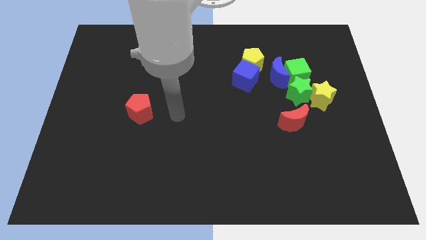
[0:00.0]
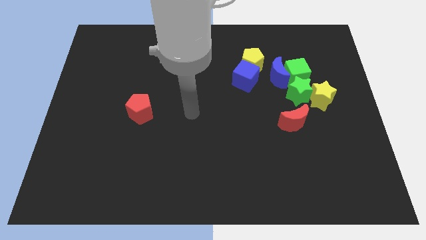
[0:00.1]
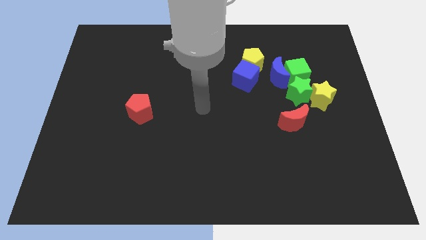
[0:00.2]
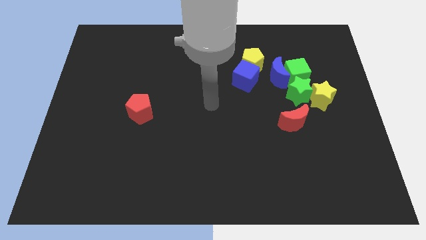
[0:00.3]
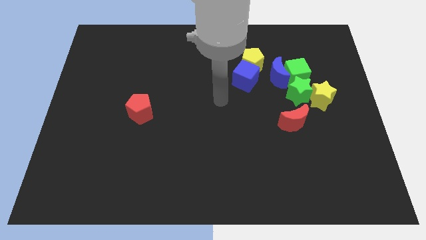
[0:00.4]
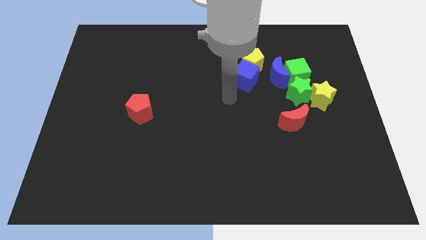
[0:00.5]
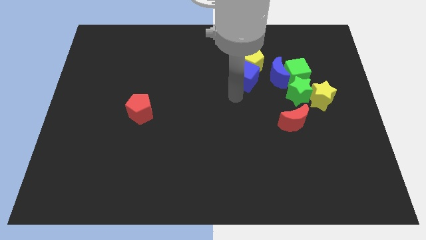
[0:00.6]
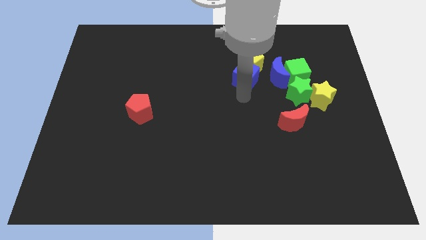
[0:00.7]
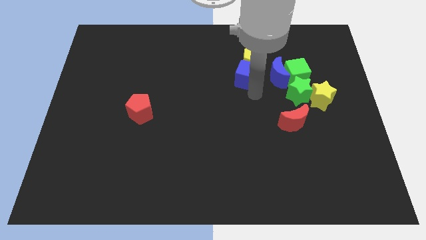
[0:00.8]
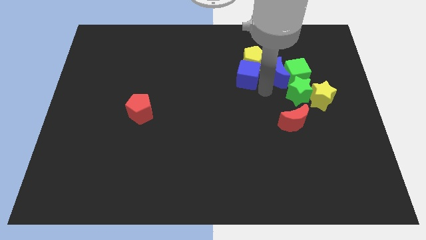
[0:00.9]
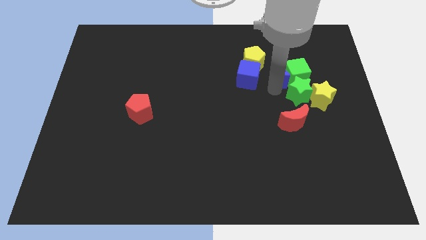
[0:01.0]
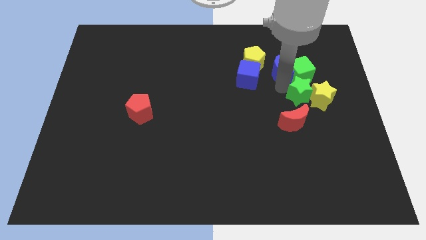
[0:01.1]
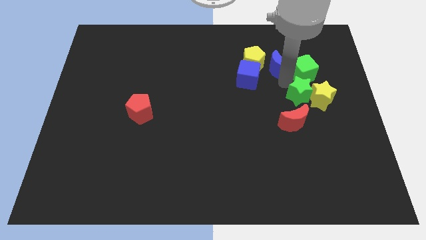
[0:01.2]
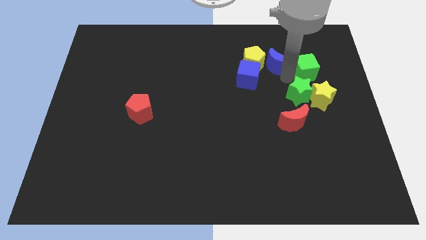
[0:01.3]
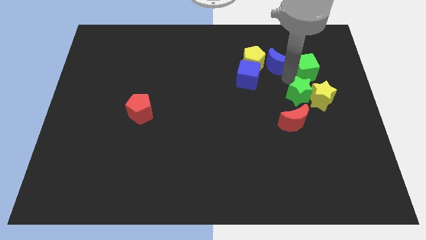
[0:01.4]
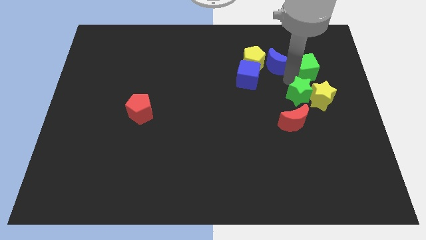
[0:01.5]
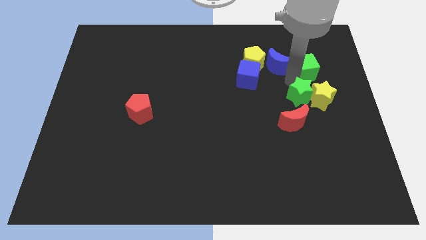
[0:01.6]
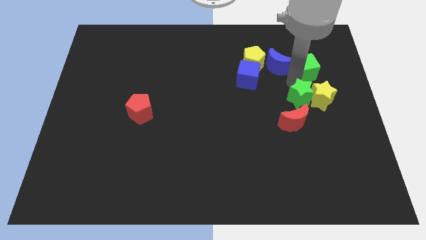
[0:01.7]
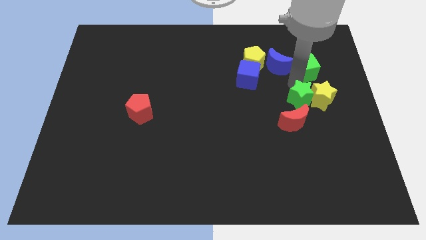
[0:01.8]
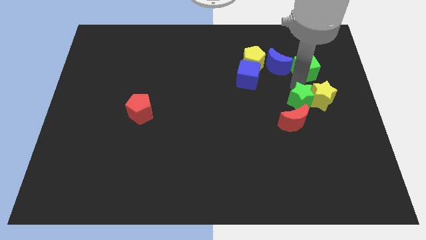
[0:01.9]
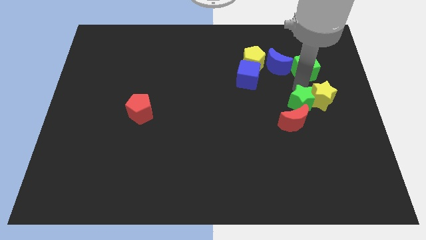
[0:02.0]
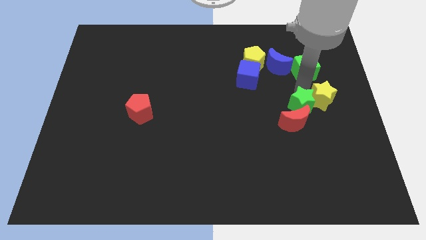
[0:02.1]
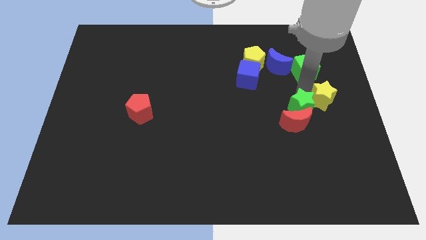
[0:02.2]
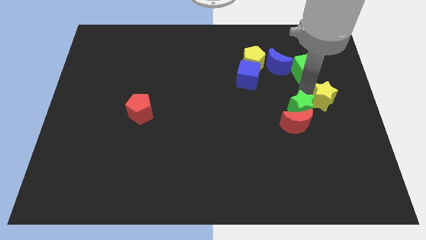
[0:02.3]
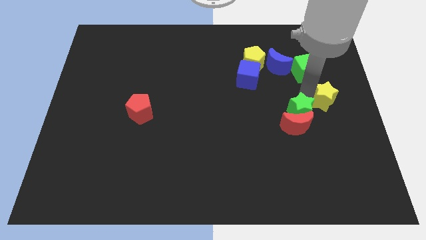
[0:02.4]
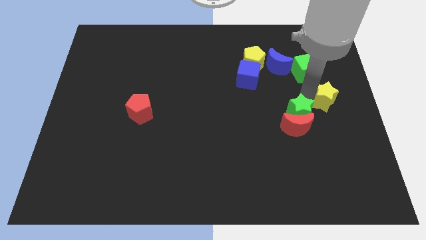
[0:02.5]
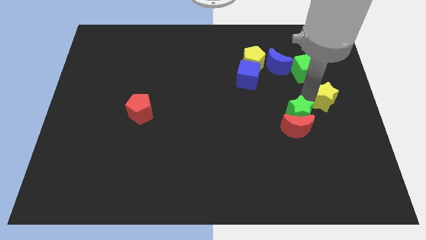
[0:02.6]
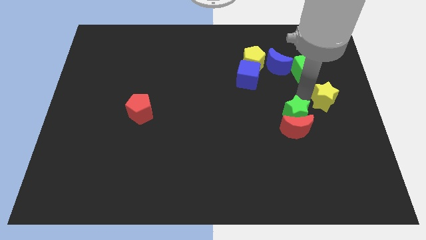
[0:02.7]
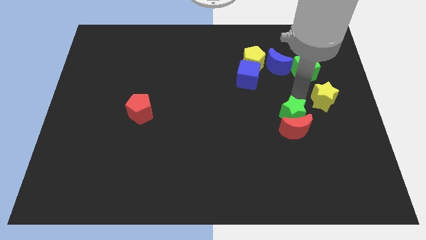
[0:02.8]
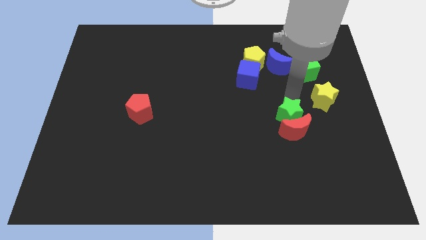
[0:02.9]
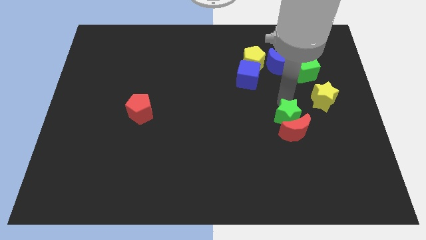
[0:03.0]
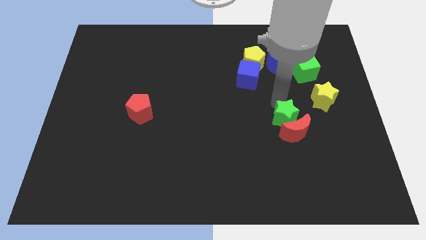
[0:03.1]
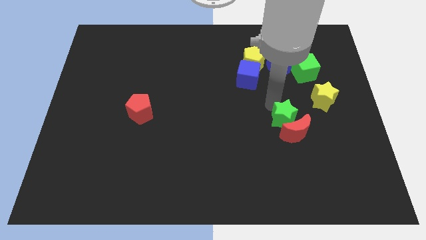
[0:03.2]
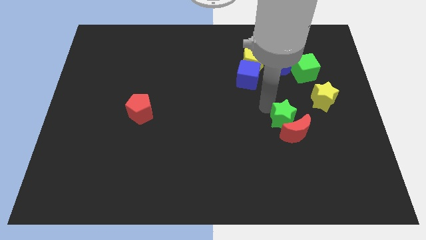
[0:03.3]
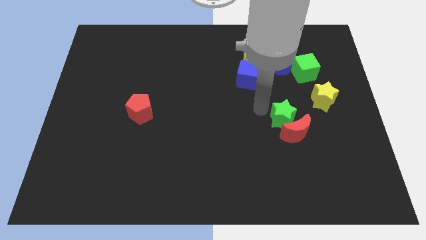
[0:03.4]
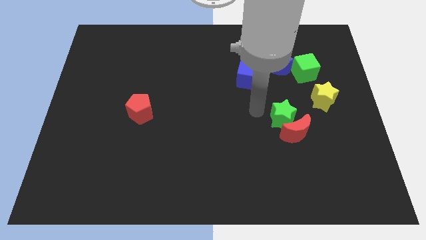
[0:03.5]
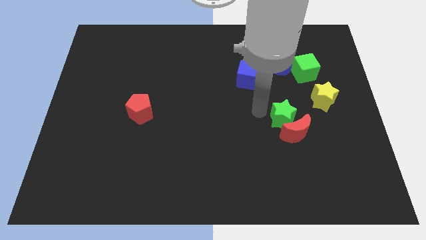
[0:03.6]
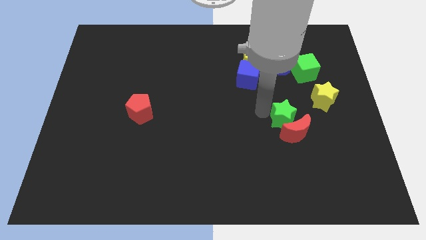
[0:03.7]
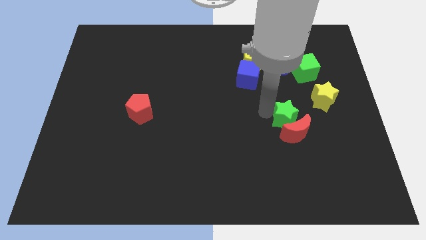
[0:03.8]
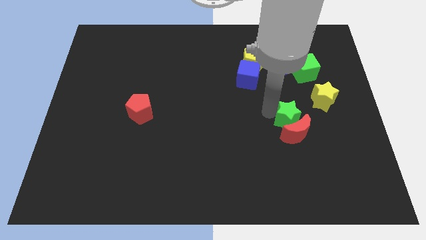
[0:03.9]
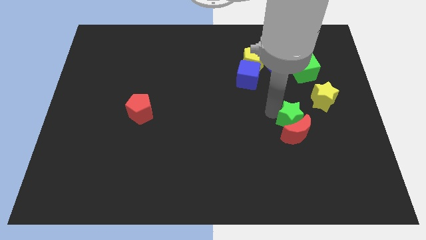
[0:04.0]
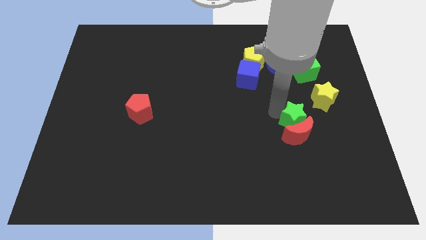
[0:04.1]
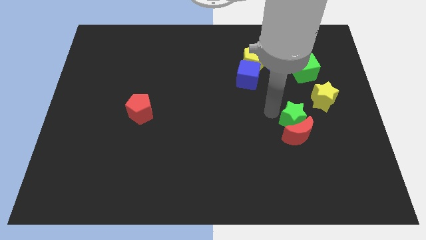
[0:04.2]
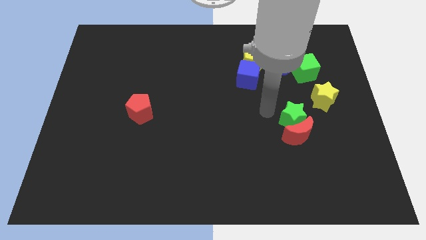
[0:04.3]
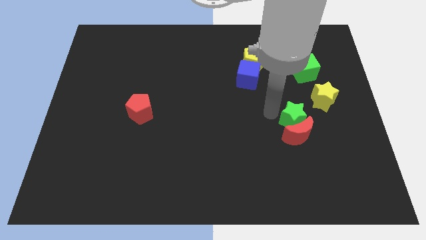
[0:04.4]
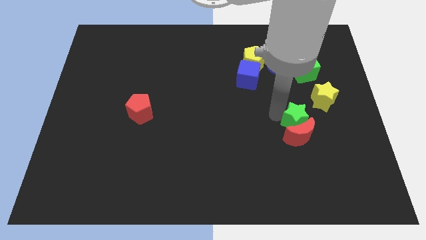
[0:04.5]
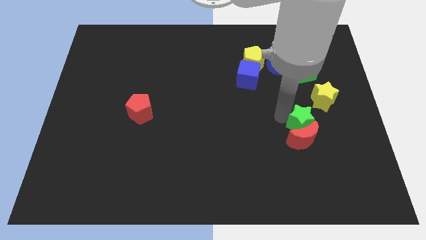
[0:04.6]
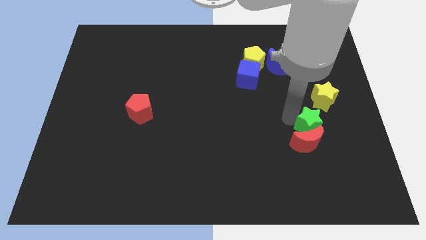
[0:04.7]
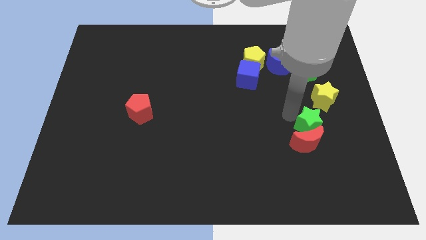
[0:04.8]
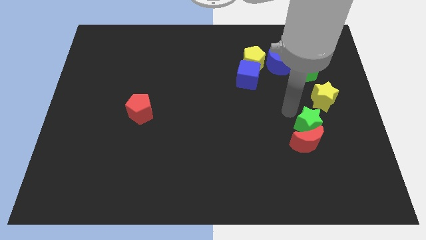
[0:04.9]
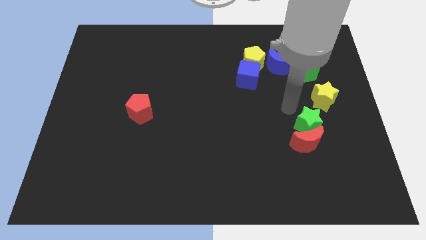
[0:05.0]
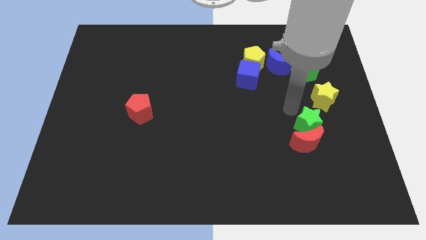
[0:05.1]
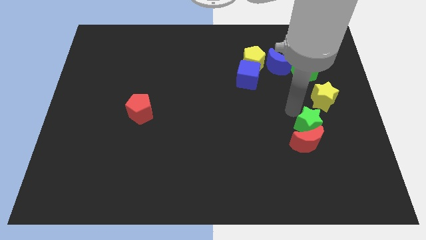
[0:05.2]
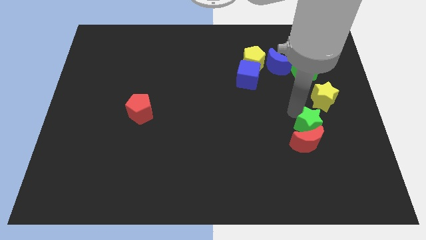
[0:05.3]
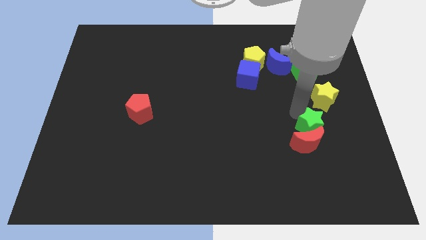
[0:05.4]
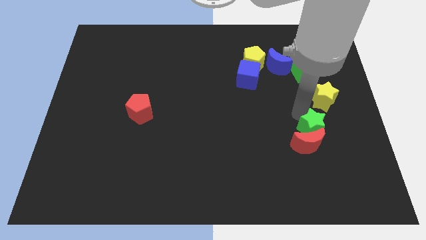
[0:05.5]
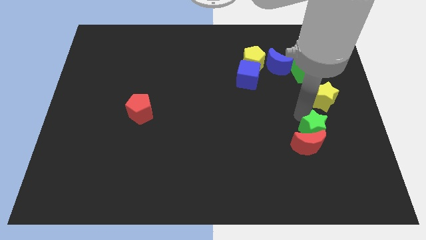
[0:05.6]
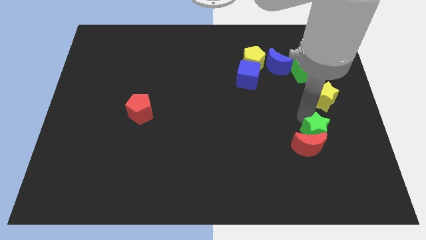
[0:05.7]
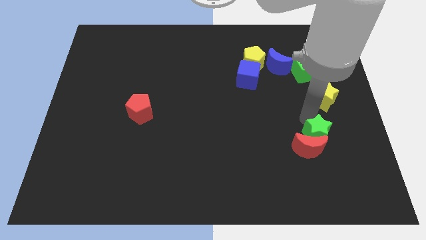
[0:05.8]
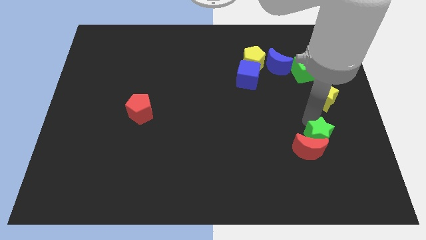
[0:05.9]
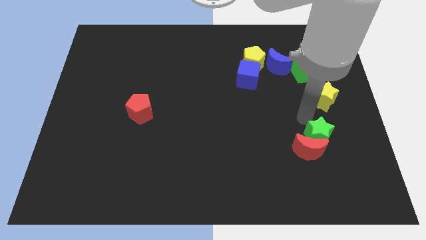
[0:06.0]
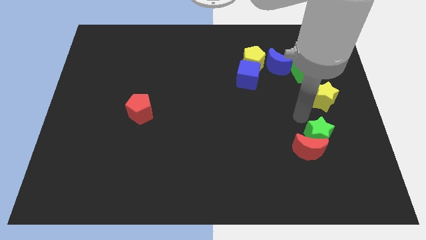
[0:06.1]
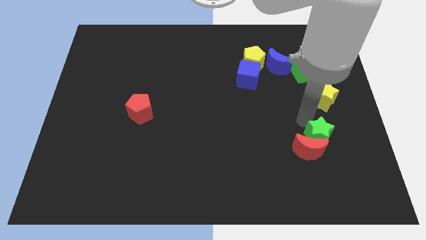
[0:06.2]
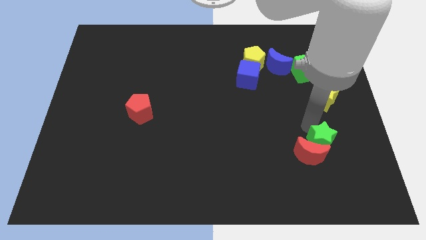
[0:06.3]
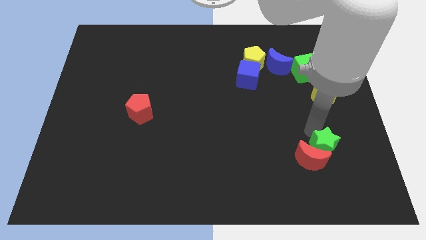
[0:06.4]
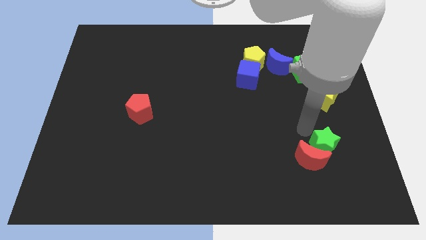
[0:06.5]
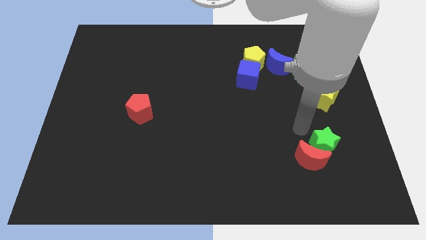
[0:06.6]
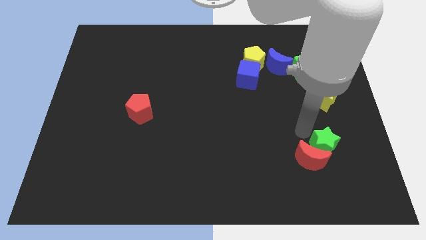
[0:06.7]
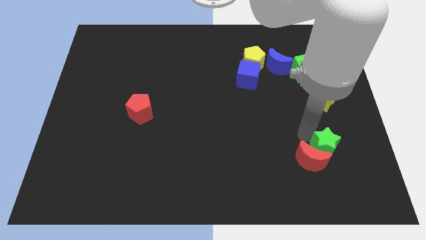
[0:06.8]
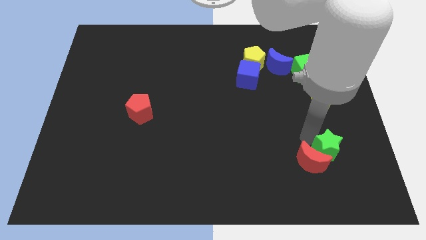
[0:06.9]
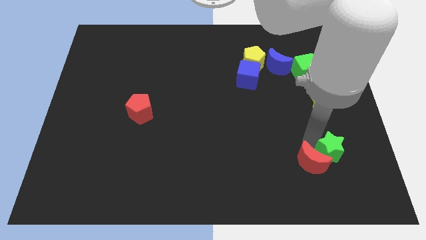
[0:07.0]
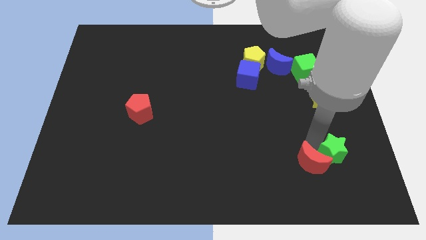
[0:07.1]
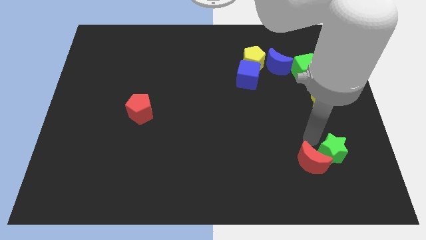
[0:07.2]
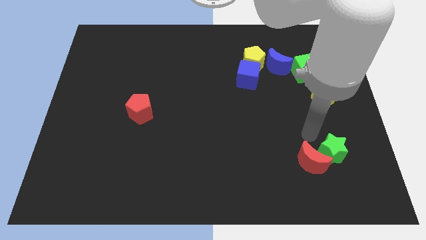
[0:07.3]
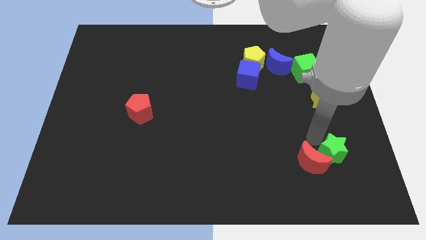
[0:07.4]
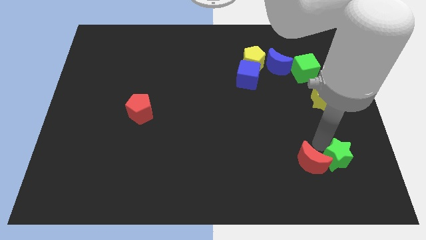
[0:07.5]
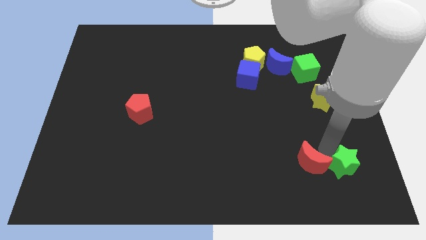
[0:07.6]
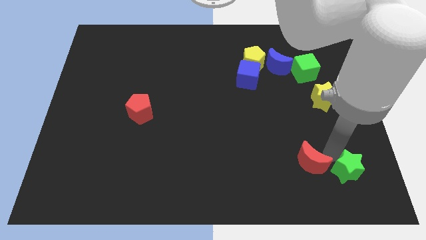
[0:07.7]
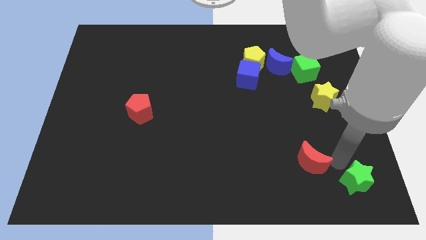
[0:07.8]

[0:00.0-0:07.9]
push the green star to the bottom right
